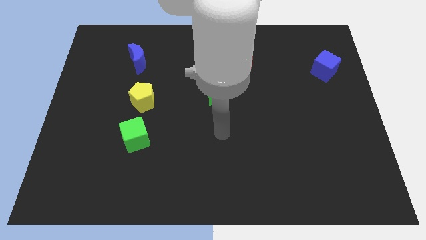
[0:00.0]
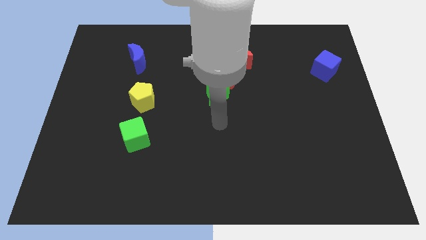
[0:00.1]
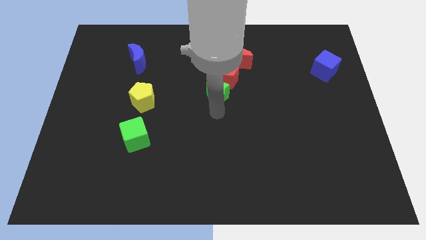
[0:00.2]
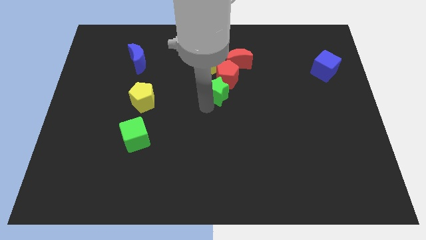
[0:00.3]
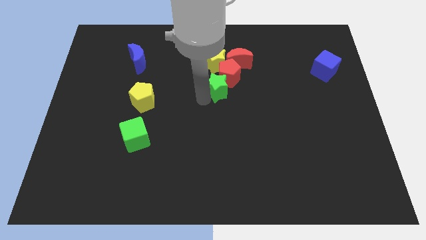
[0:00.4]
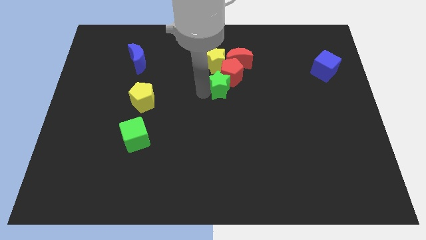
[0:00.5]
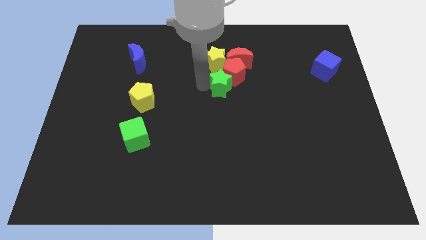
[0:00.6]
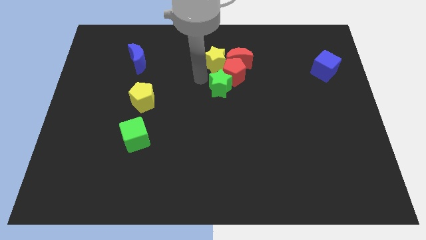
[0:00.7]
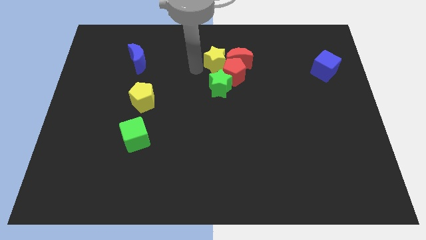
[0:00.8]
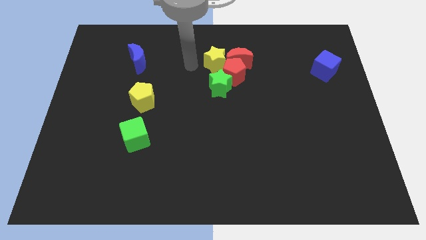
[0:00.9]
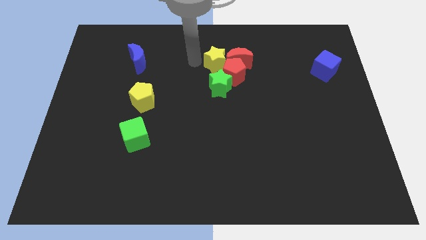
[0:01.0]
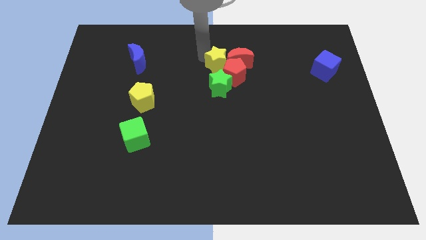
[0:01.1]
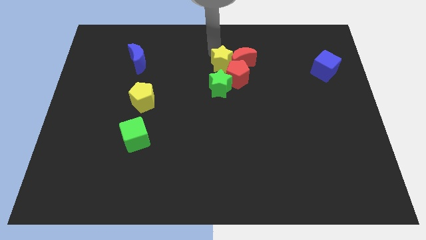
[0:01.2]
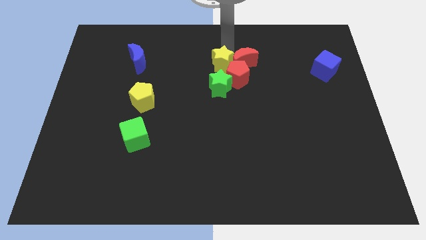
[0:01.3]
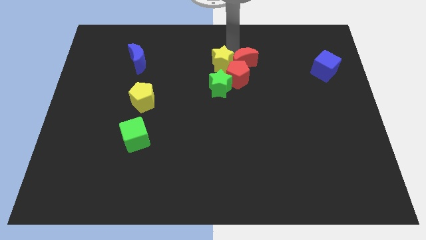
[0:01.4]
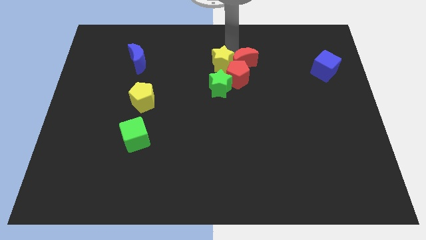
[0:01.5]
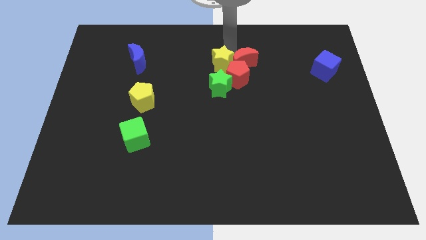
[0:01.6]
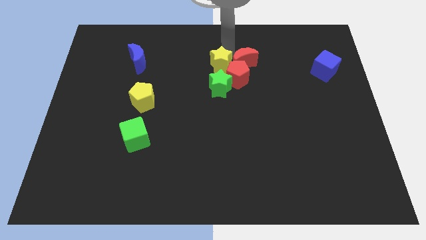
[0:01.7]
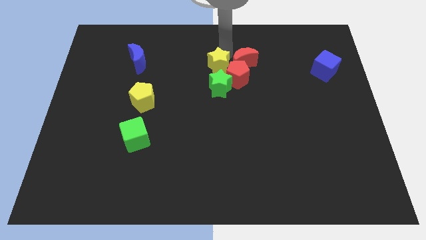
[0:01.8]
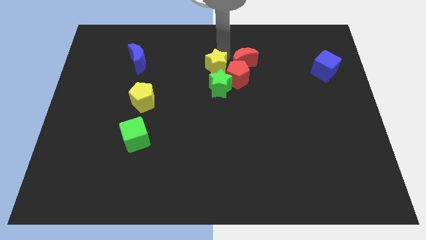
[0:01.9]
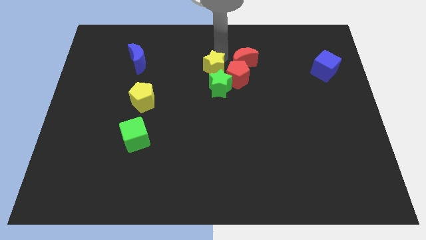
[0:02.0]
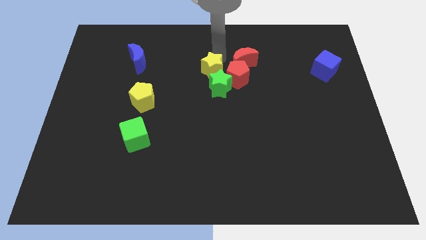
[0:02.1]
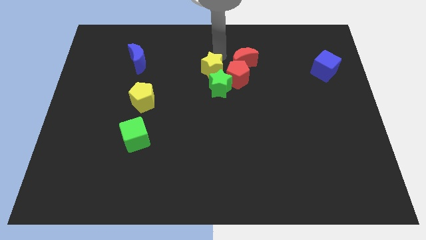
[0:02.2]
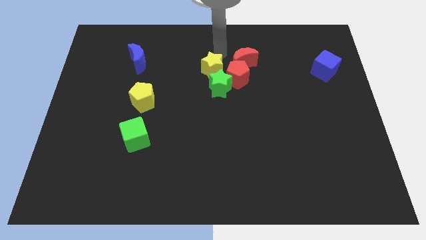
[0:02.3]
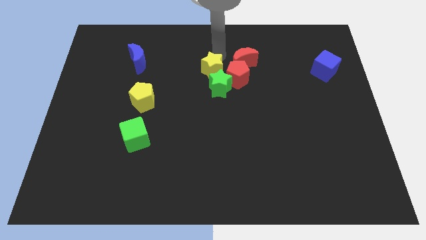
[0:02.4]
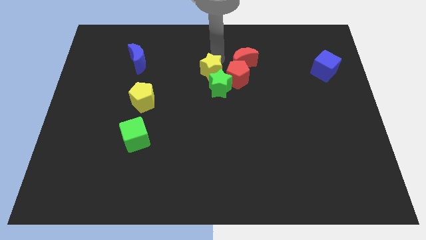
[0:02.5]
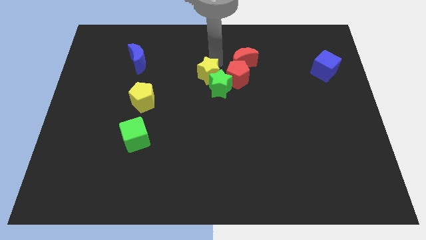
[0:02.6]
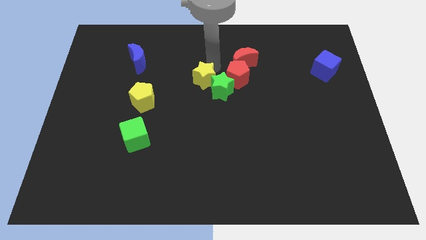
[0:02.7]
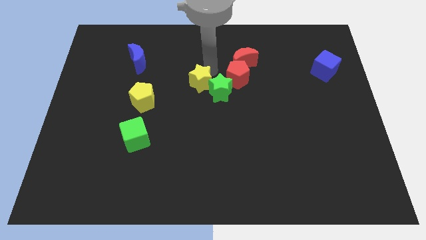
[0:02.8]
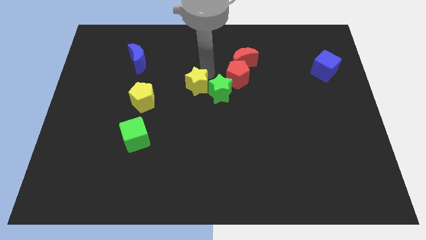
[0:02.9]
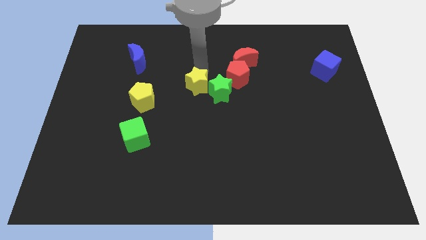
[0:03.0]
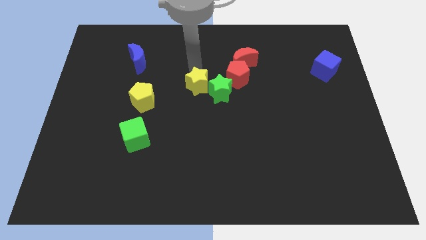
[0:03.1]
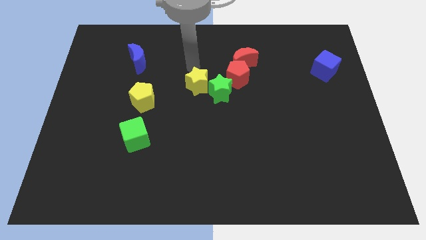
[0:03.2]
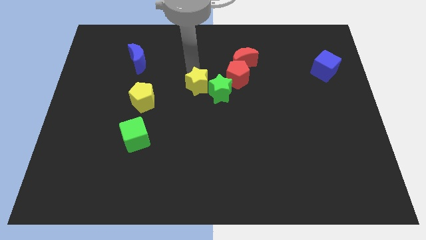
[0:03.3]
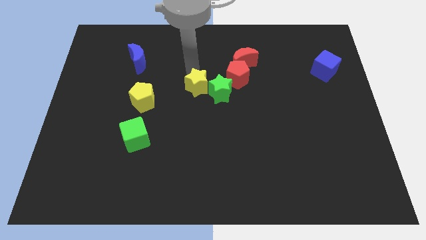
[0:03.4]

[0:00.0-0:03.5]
slide the yellow star downwards slightly

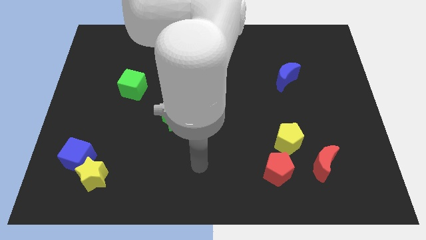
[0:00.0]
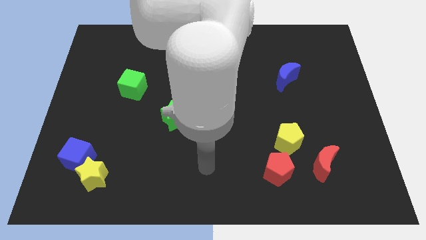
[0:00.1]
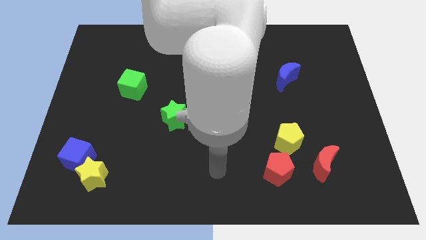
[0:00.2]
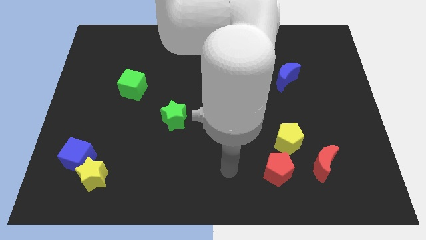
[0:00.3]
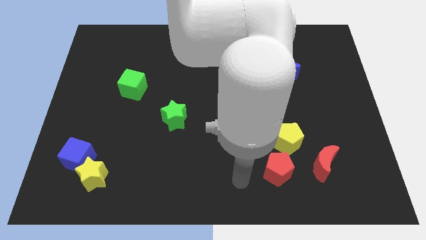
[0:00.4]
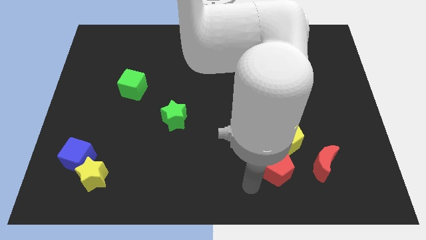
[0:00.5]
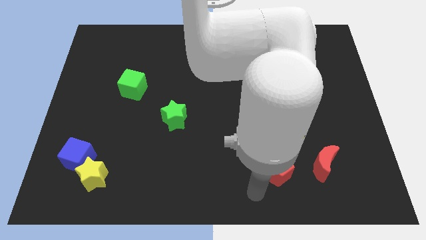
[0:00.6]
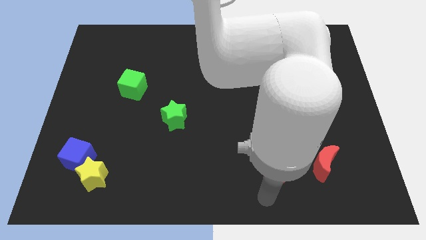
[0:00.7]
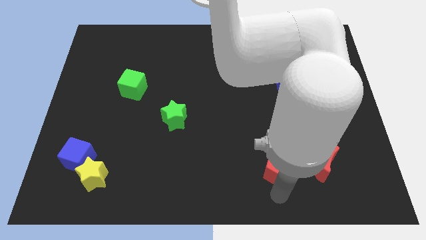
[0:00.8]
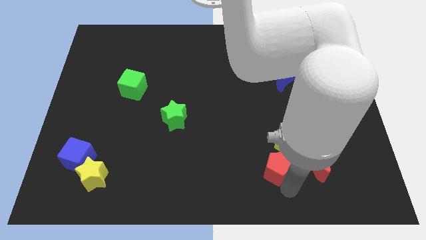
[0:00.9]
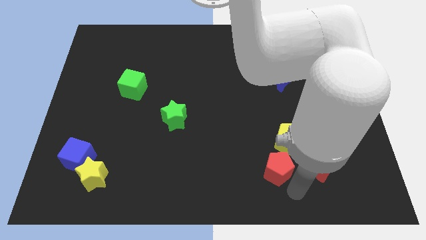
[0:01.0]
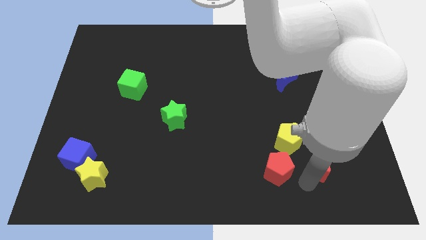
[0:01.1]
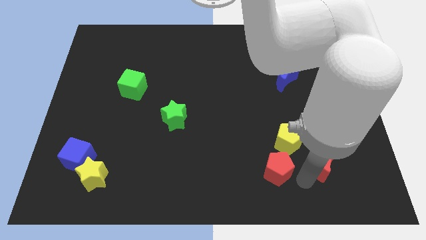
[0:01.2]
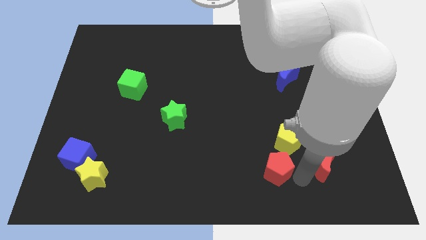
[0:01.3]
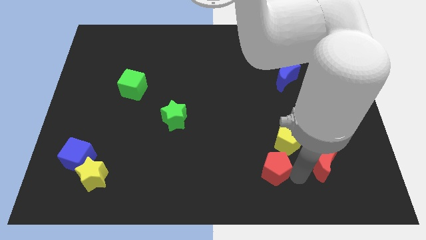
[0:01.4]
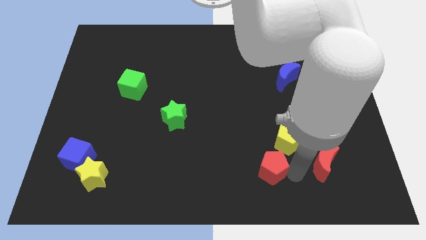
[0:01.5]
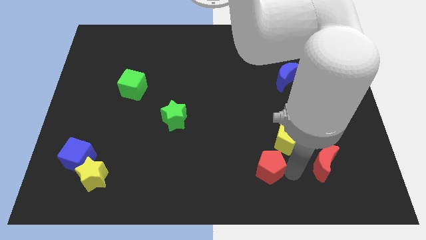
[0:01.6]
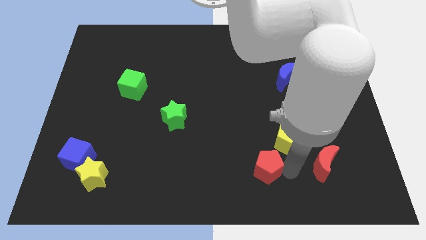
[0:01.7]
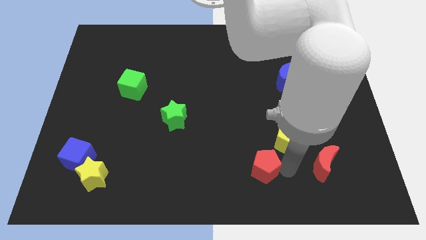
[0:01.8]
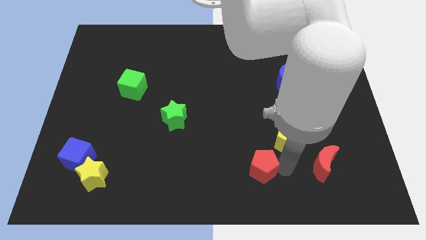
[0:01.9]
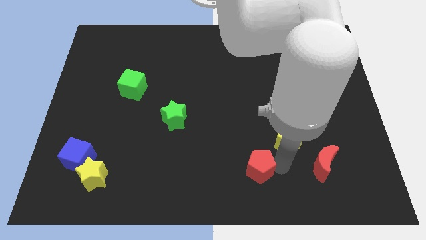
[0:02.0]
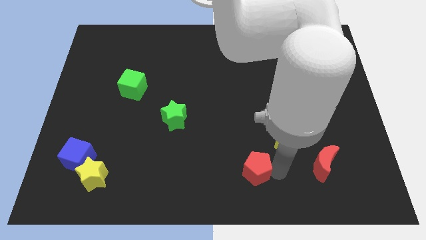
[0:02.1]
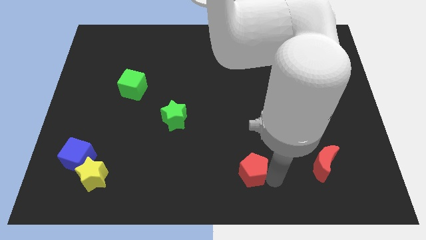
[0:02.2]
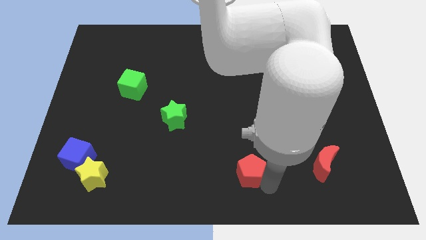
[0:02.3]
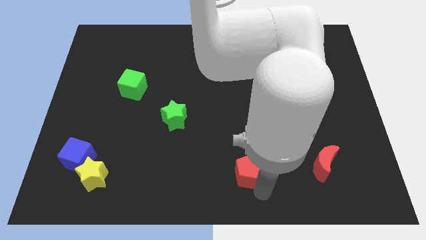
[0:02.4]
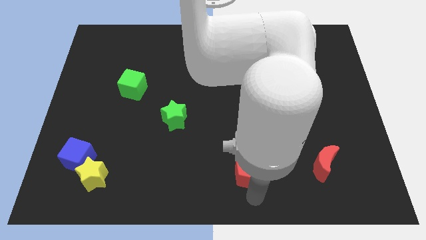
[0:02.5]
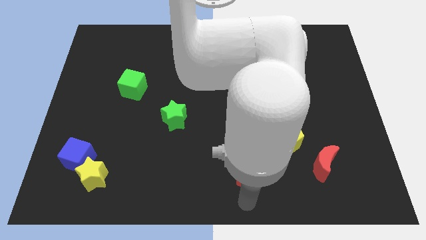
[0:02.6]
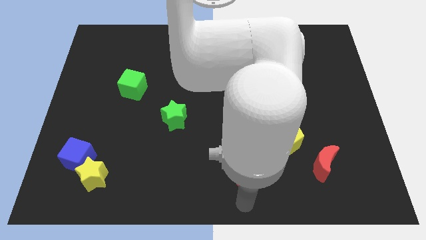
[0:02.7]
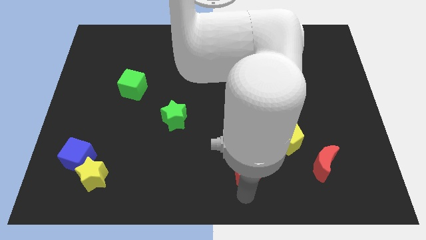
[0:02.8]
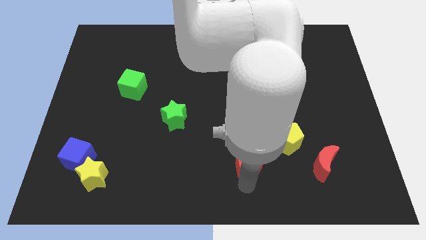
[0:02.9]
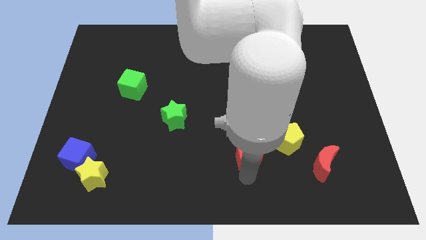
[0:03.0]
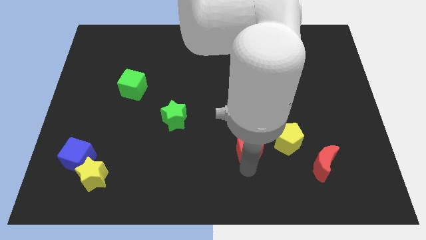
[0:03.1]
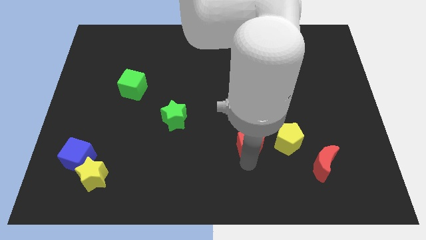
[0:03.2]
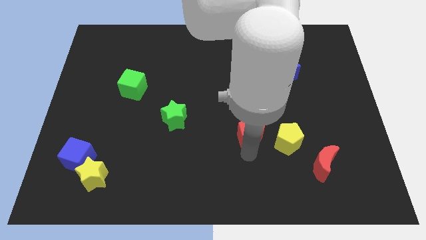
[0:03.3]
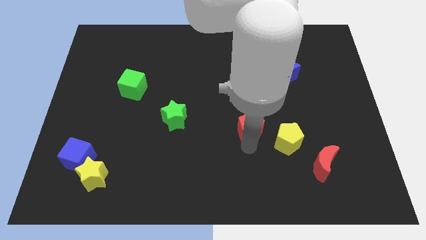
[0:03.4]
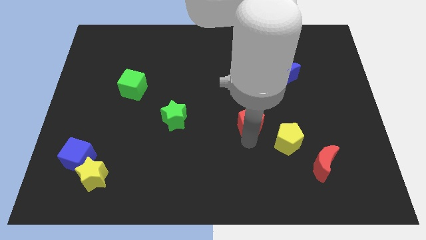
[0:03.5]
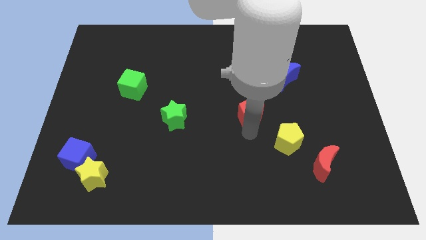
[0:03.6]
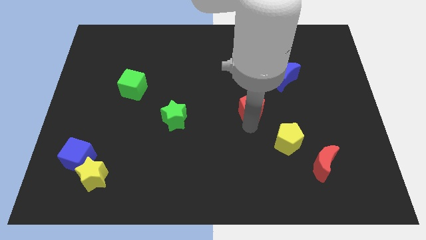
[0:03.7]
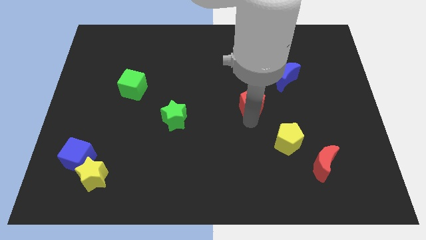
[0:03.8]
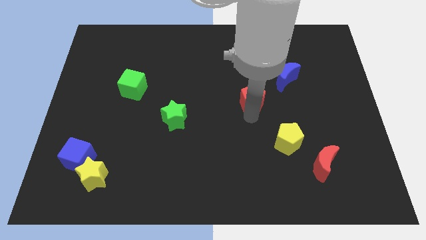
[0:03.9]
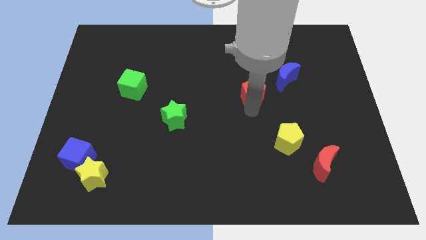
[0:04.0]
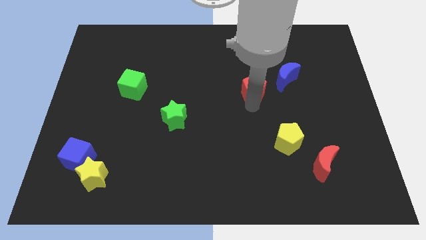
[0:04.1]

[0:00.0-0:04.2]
push the red pentagon up

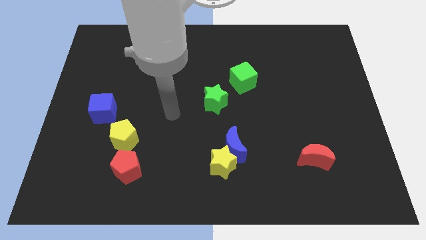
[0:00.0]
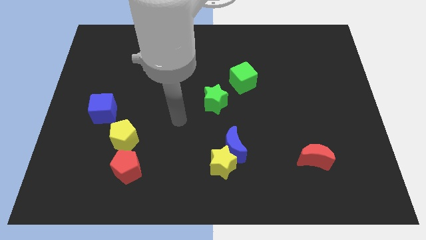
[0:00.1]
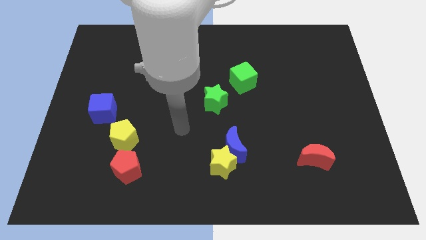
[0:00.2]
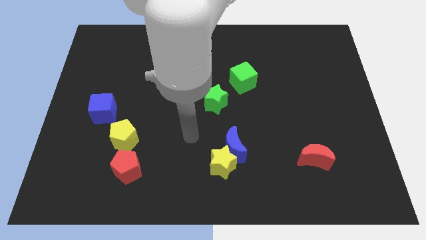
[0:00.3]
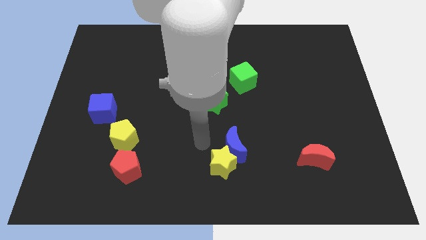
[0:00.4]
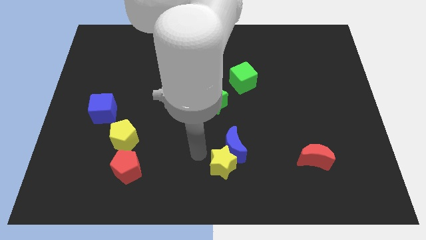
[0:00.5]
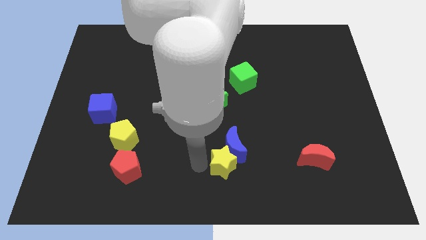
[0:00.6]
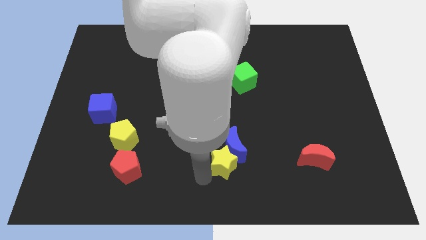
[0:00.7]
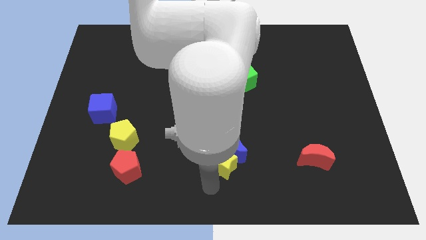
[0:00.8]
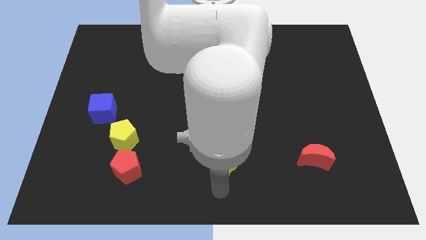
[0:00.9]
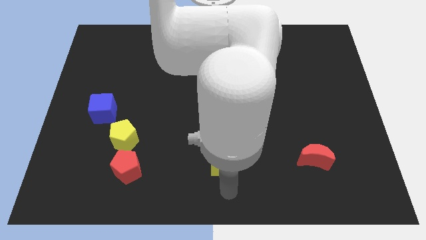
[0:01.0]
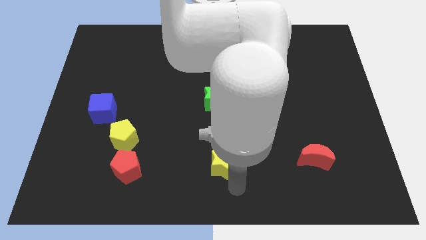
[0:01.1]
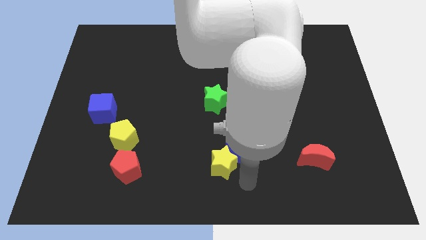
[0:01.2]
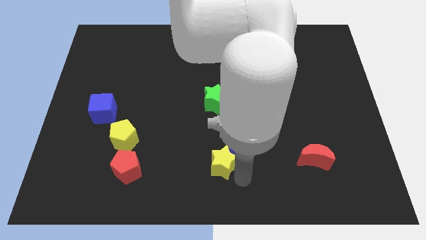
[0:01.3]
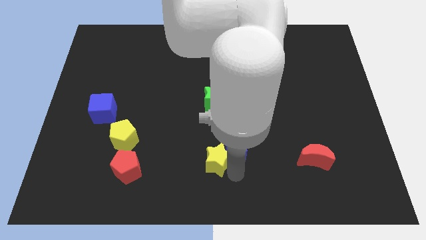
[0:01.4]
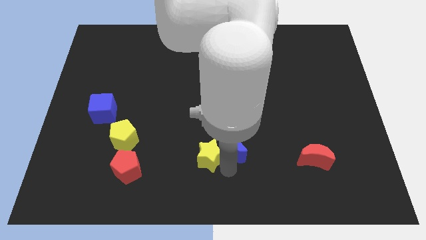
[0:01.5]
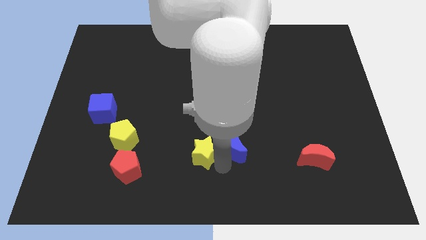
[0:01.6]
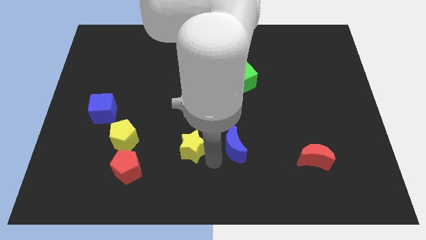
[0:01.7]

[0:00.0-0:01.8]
slightly move the yellow star diagonally up and to the left
